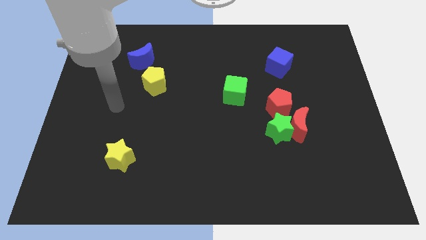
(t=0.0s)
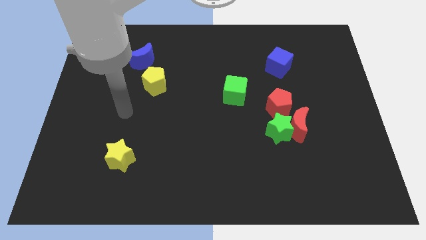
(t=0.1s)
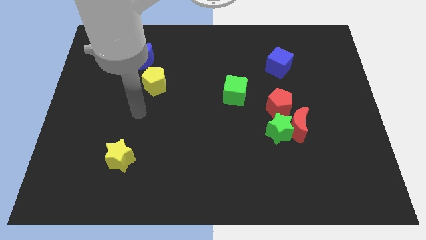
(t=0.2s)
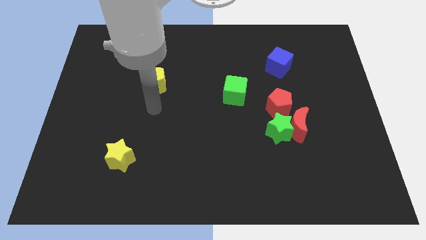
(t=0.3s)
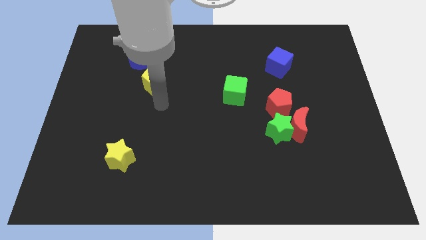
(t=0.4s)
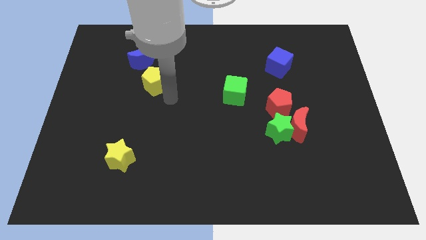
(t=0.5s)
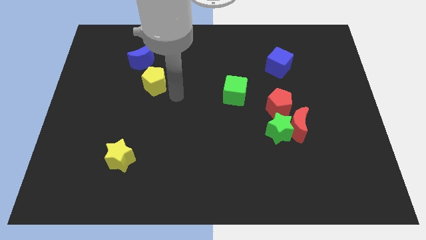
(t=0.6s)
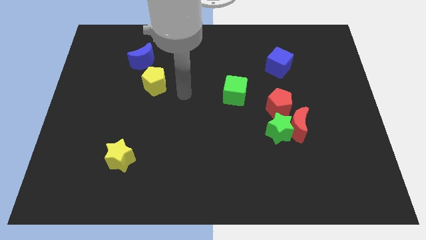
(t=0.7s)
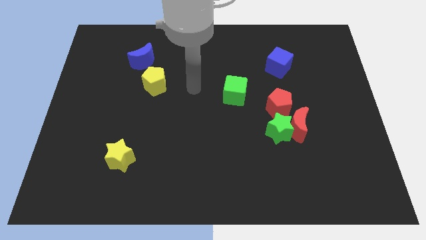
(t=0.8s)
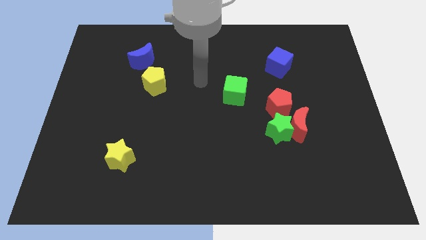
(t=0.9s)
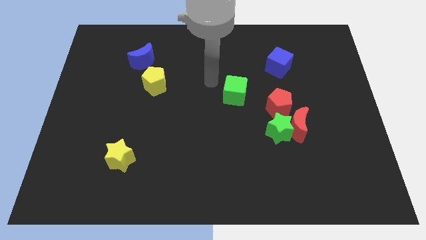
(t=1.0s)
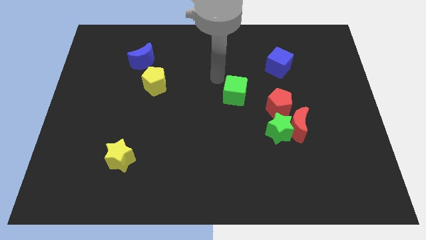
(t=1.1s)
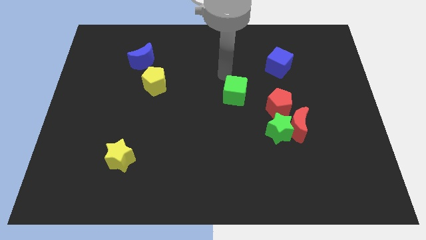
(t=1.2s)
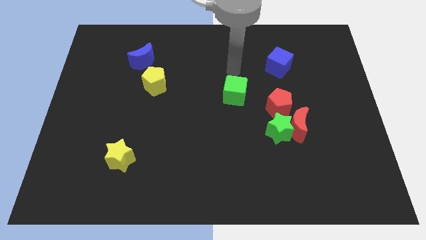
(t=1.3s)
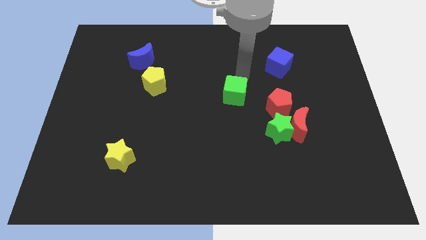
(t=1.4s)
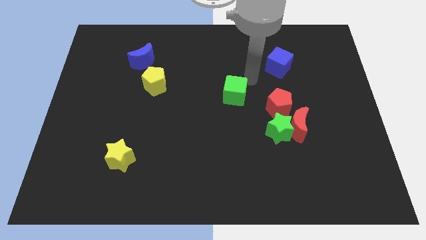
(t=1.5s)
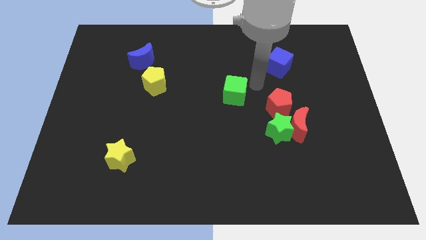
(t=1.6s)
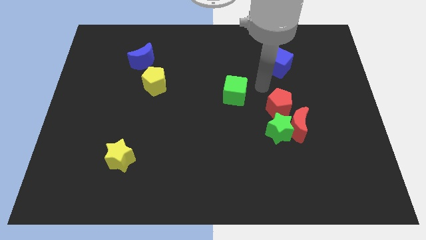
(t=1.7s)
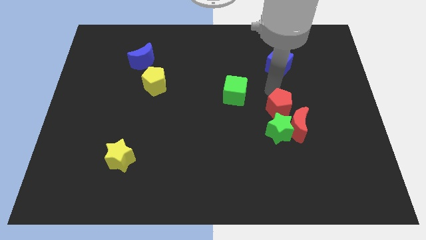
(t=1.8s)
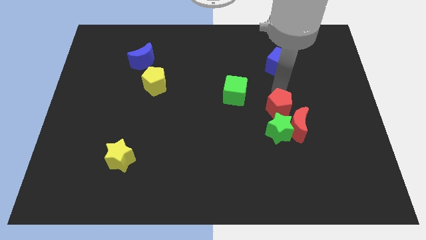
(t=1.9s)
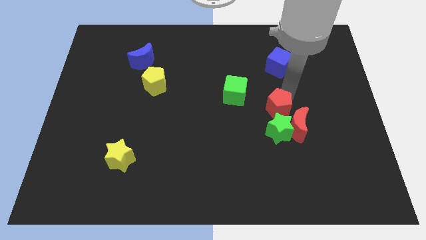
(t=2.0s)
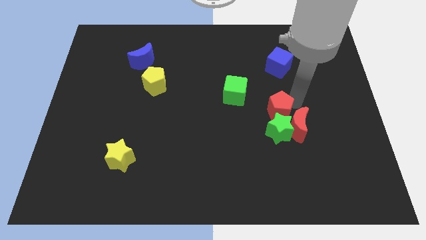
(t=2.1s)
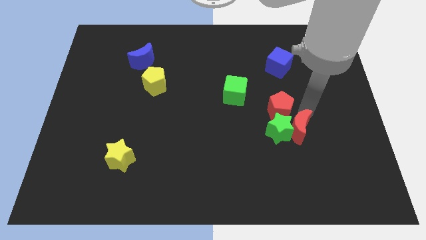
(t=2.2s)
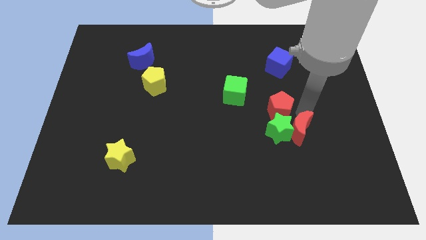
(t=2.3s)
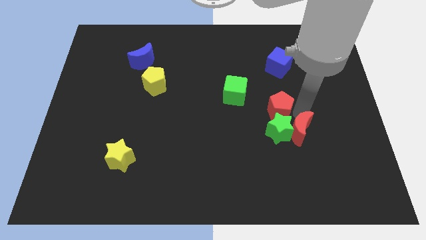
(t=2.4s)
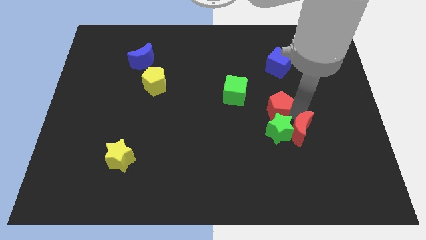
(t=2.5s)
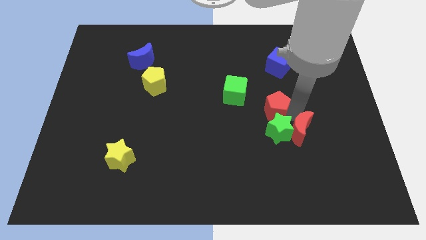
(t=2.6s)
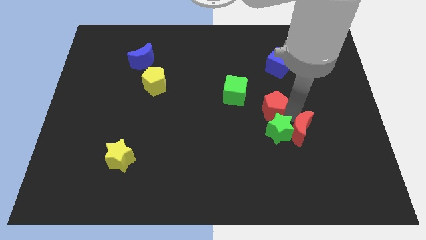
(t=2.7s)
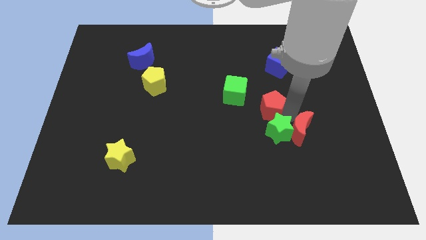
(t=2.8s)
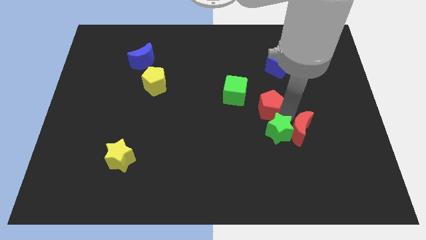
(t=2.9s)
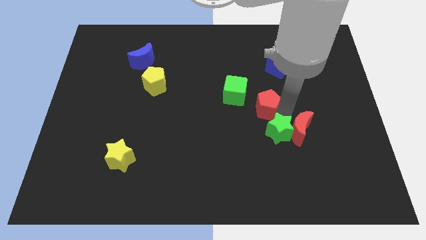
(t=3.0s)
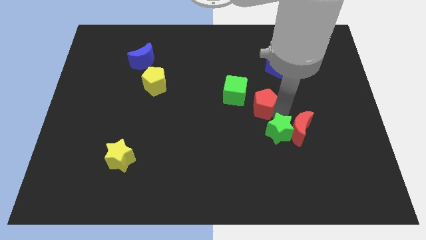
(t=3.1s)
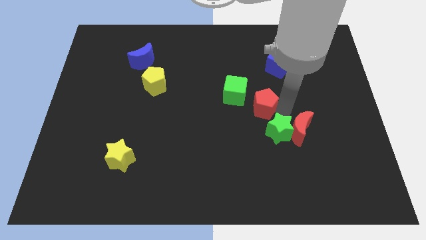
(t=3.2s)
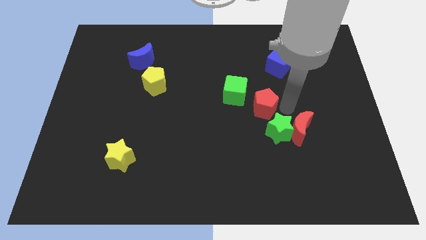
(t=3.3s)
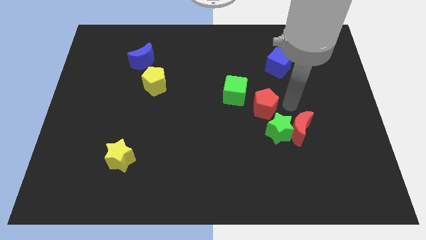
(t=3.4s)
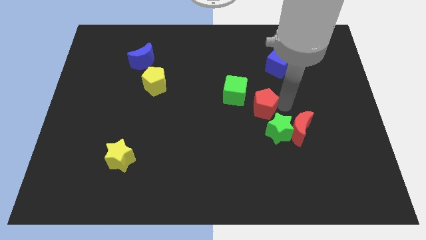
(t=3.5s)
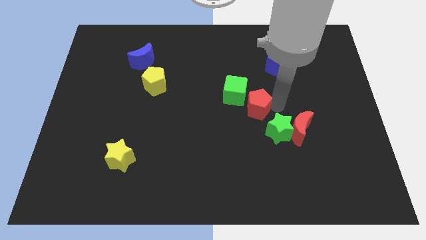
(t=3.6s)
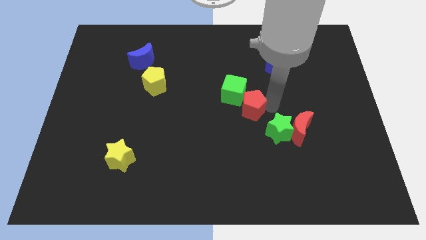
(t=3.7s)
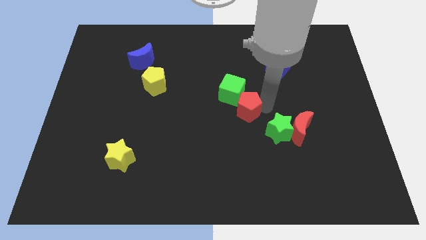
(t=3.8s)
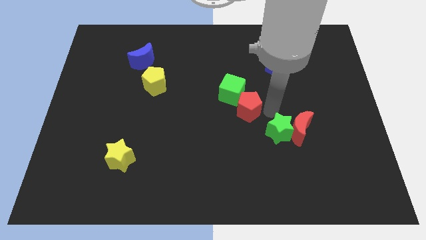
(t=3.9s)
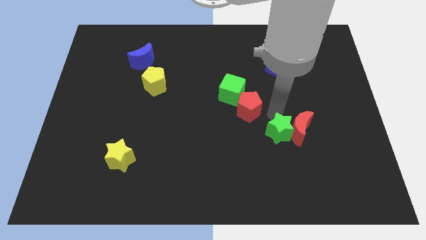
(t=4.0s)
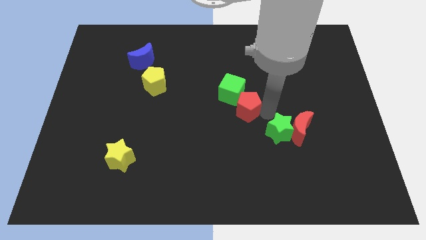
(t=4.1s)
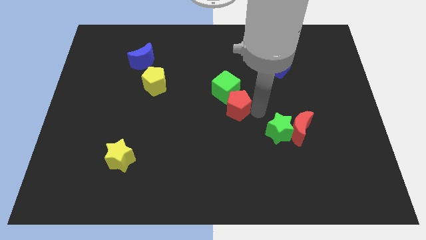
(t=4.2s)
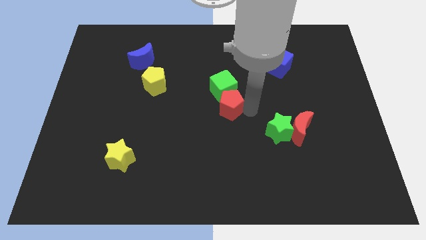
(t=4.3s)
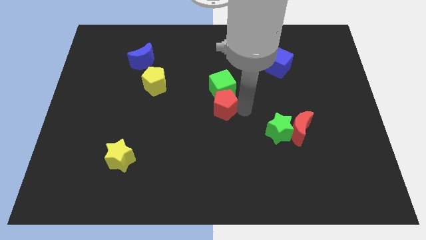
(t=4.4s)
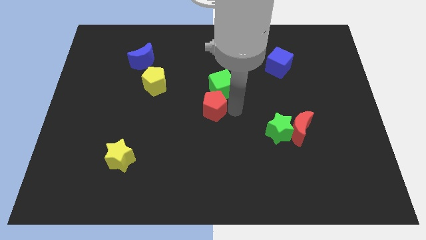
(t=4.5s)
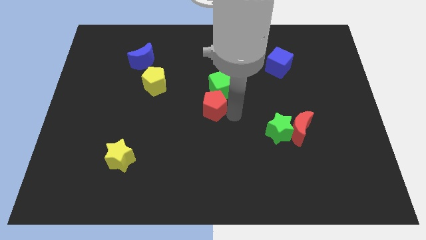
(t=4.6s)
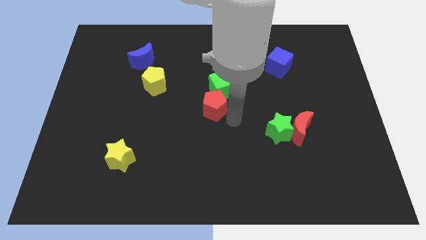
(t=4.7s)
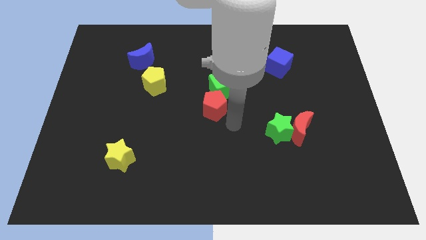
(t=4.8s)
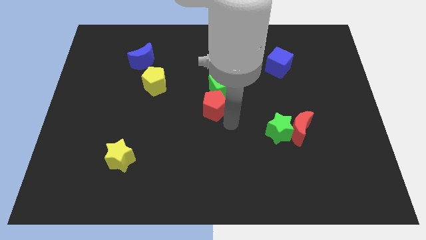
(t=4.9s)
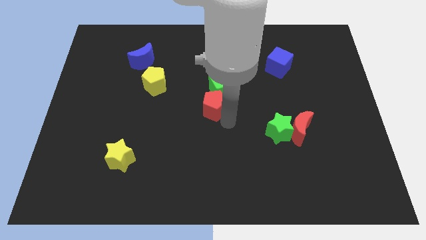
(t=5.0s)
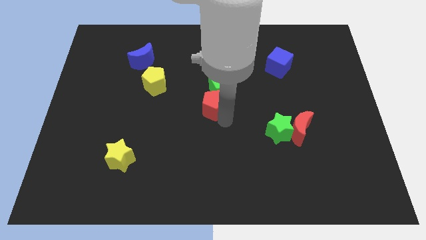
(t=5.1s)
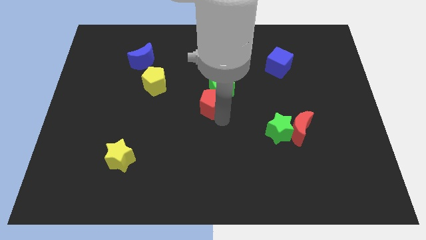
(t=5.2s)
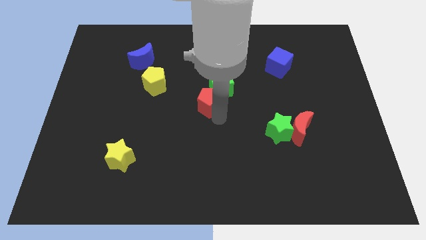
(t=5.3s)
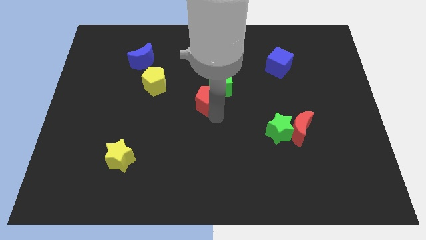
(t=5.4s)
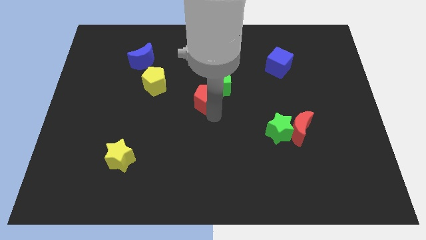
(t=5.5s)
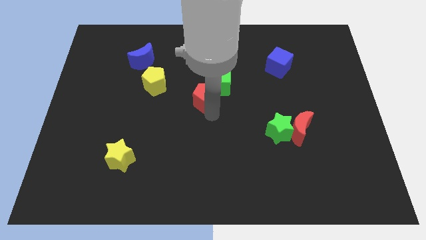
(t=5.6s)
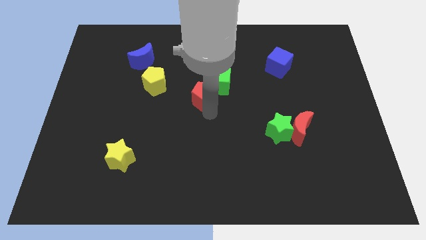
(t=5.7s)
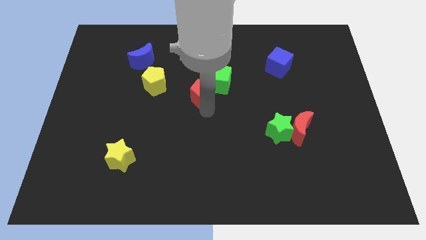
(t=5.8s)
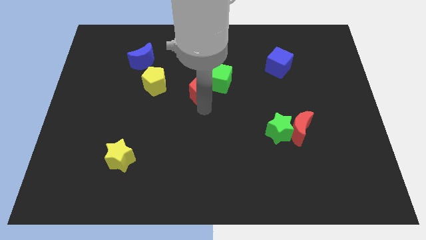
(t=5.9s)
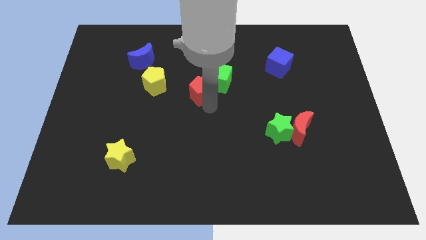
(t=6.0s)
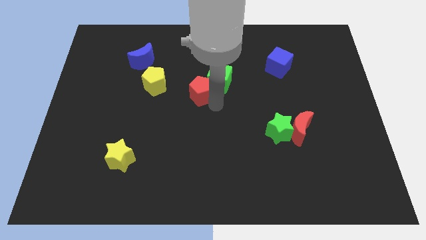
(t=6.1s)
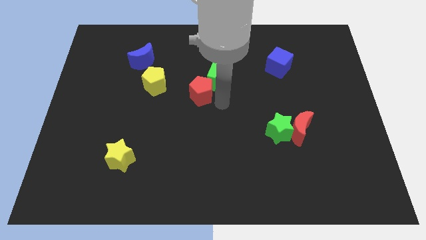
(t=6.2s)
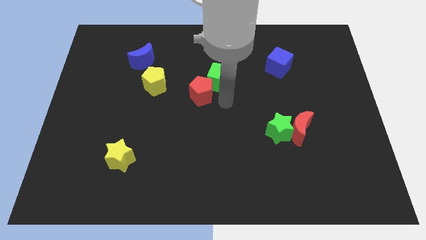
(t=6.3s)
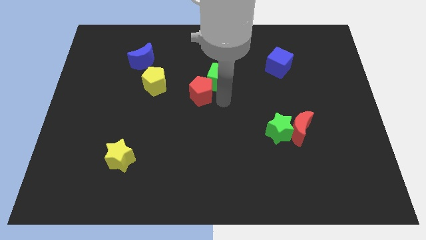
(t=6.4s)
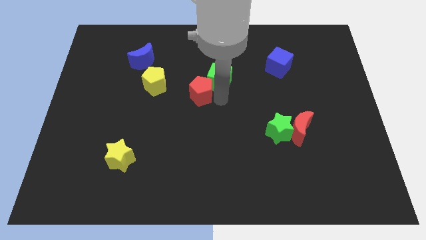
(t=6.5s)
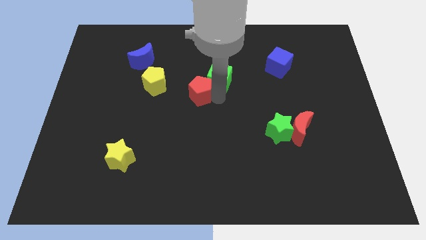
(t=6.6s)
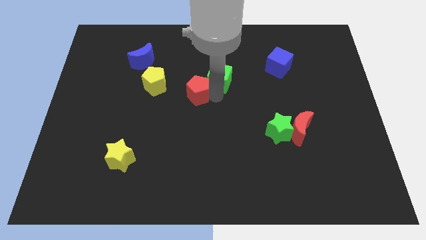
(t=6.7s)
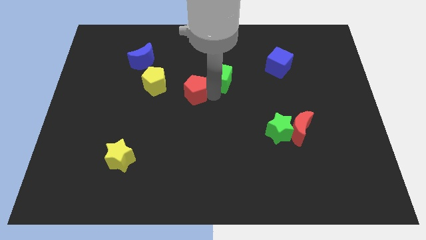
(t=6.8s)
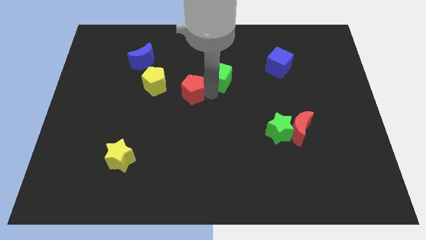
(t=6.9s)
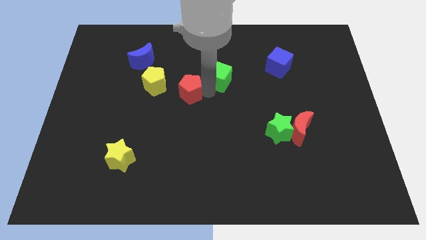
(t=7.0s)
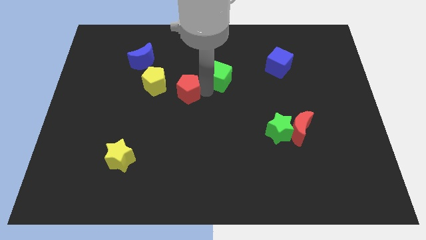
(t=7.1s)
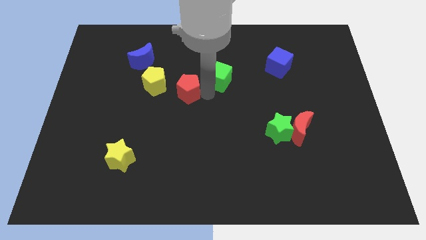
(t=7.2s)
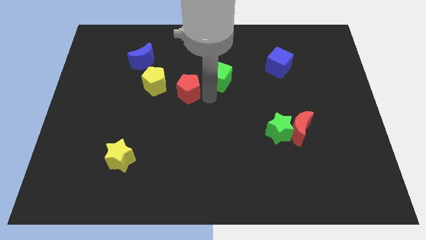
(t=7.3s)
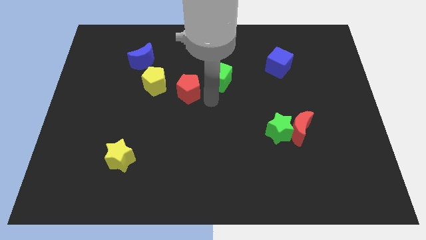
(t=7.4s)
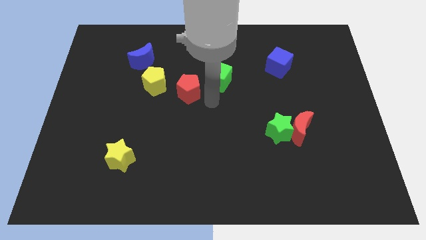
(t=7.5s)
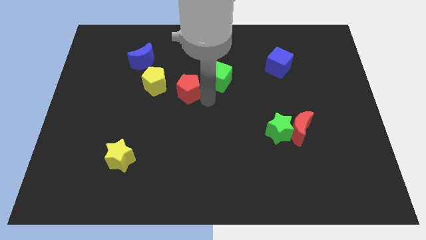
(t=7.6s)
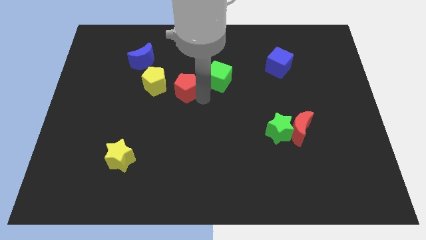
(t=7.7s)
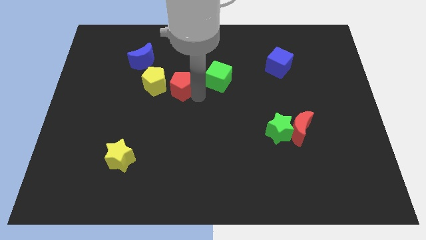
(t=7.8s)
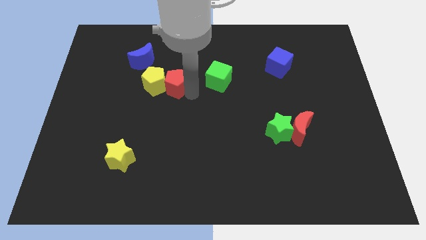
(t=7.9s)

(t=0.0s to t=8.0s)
put the red pentagon diagonally down and to the right of the blue moon
